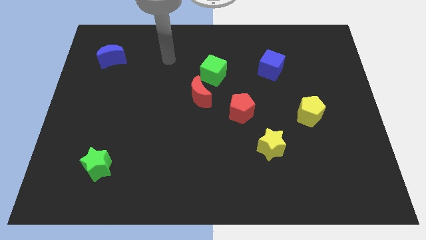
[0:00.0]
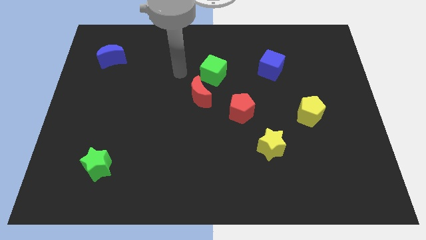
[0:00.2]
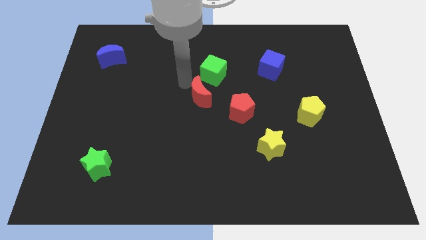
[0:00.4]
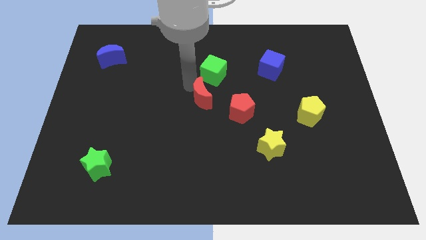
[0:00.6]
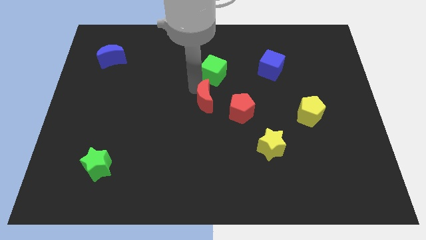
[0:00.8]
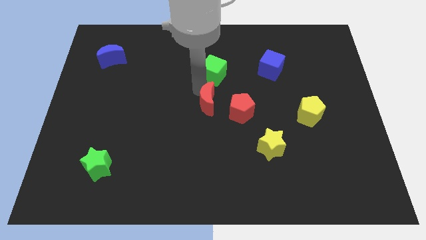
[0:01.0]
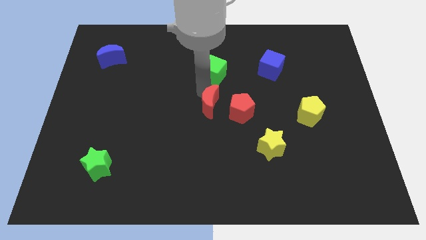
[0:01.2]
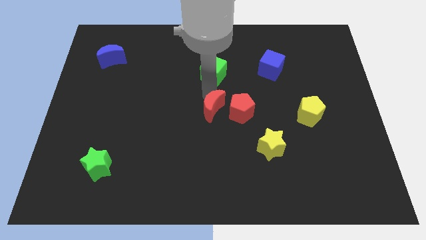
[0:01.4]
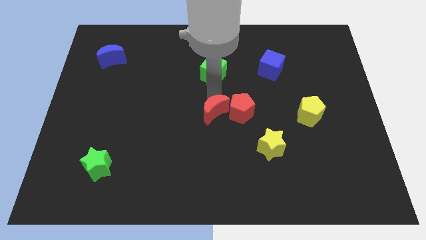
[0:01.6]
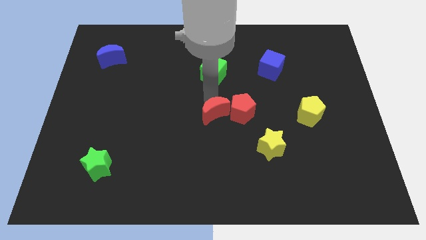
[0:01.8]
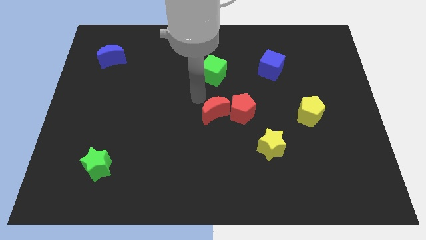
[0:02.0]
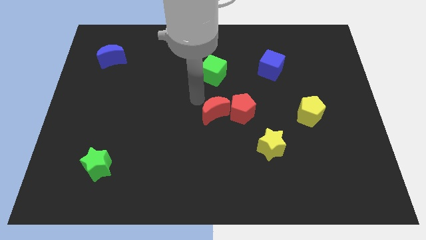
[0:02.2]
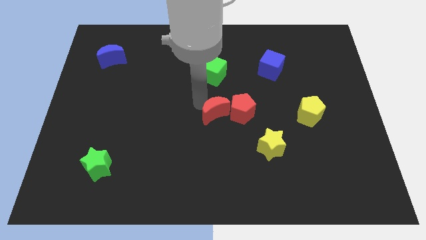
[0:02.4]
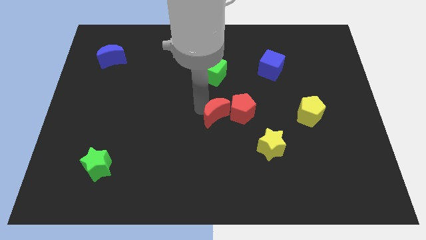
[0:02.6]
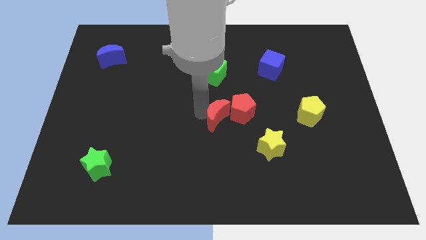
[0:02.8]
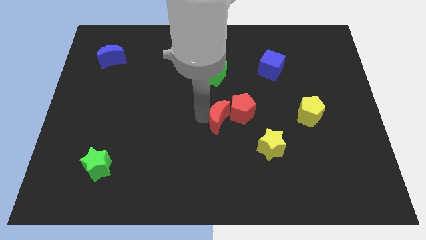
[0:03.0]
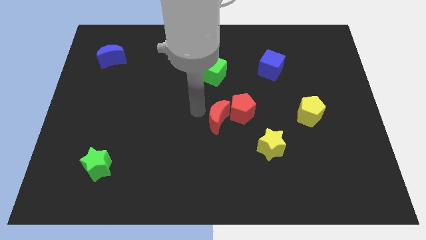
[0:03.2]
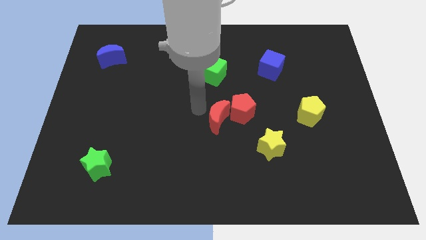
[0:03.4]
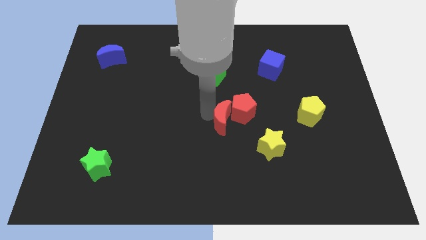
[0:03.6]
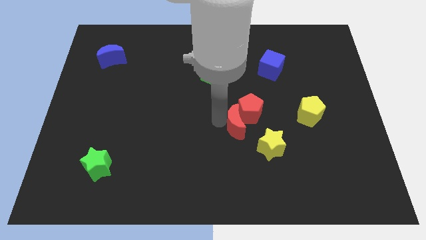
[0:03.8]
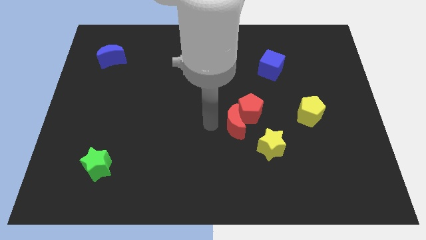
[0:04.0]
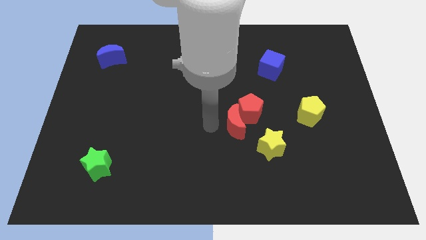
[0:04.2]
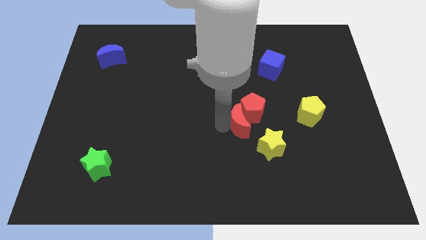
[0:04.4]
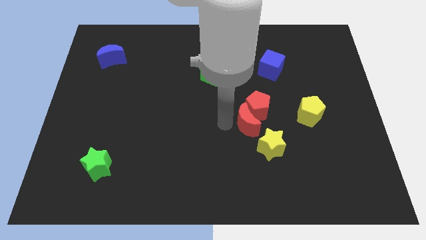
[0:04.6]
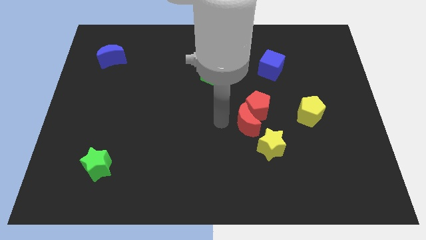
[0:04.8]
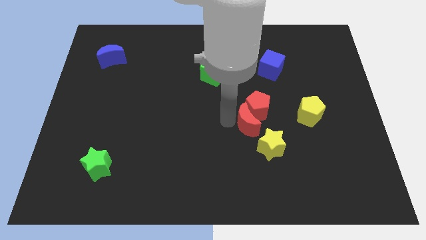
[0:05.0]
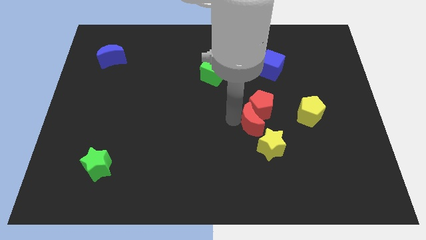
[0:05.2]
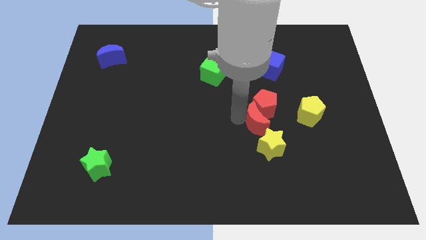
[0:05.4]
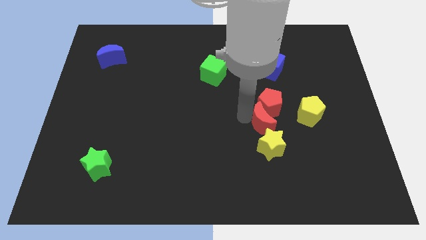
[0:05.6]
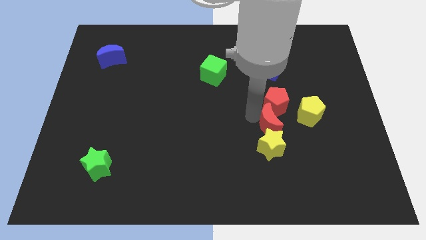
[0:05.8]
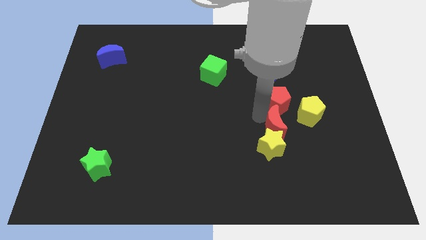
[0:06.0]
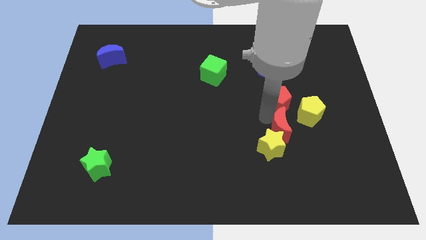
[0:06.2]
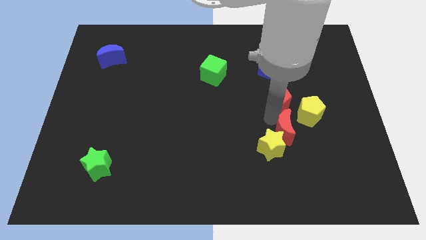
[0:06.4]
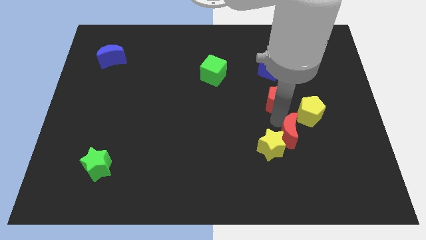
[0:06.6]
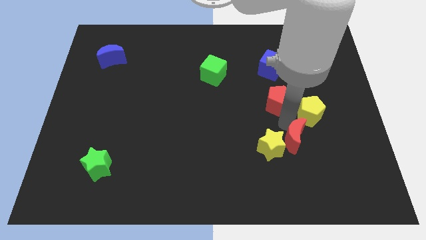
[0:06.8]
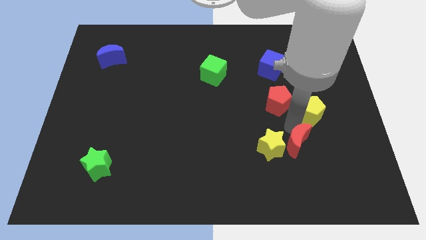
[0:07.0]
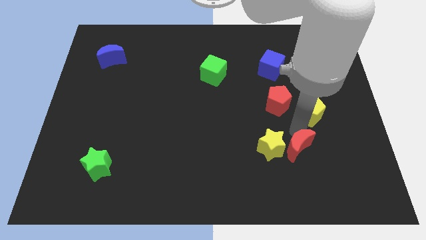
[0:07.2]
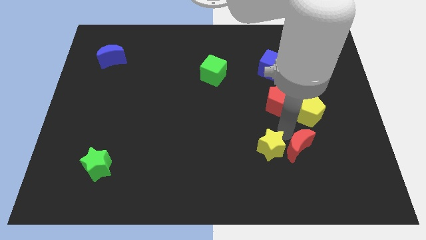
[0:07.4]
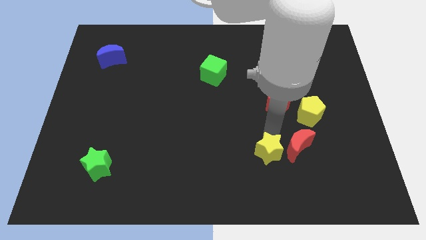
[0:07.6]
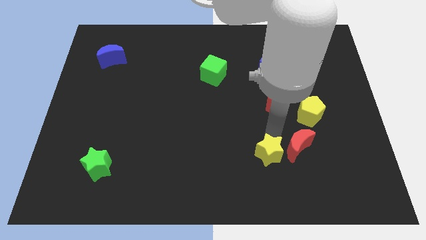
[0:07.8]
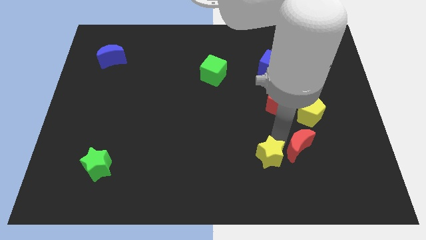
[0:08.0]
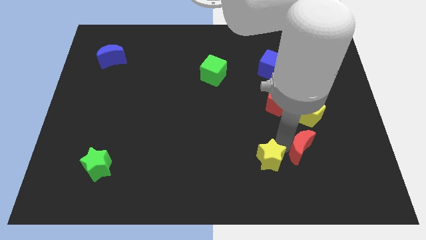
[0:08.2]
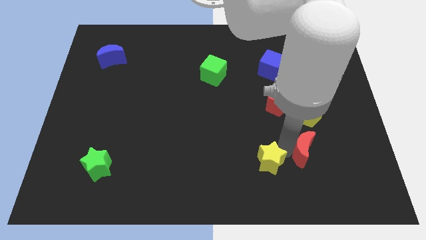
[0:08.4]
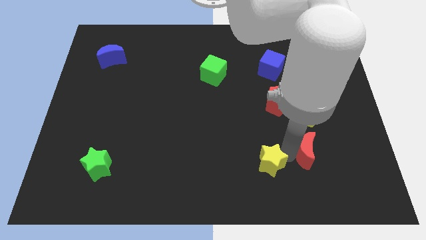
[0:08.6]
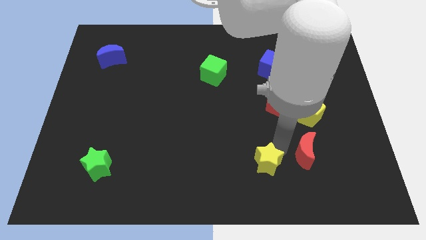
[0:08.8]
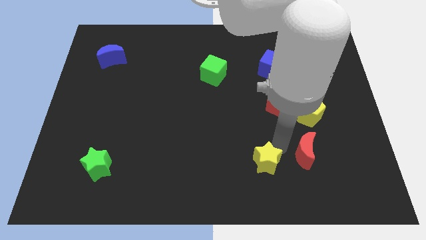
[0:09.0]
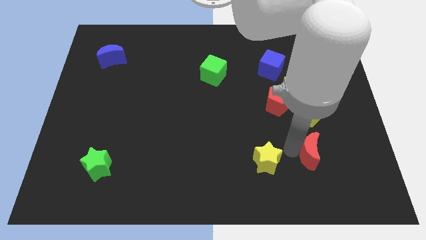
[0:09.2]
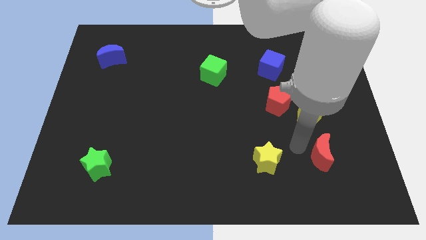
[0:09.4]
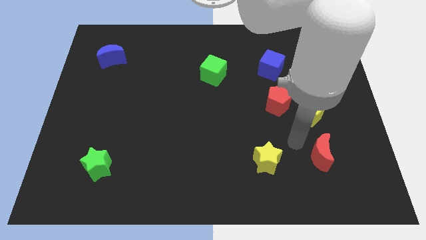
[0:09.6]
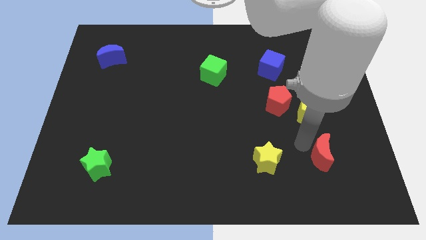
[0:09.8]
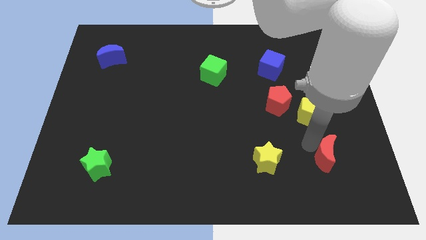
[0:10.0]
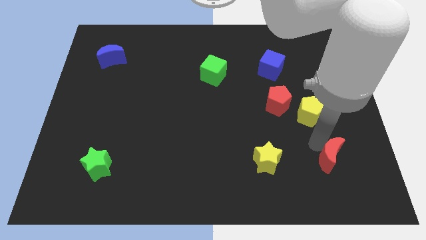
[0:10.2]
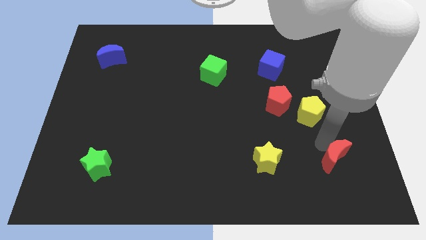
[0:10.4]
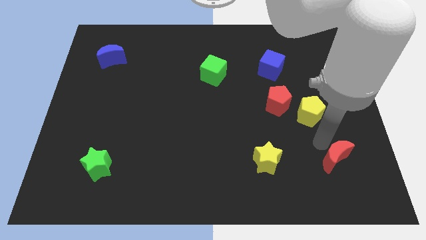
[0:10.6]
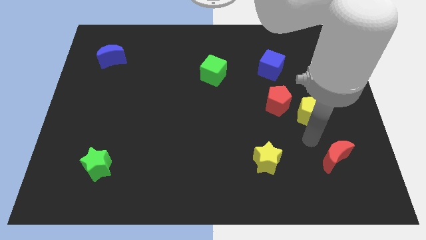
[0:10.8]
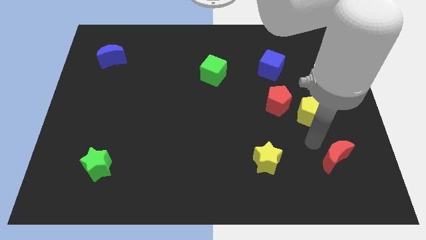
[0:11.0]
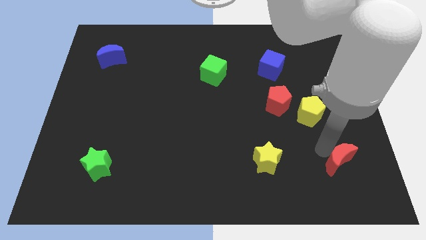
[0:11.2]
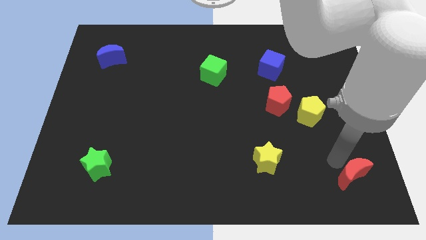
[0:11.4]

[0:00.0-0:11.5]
push the red moon to the bottom right

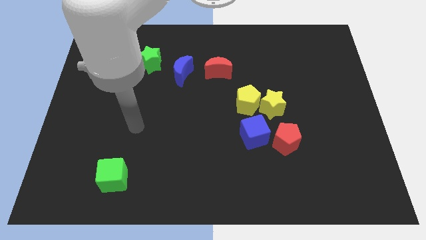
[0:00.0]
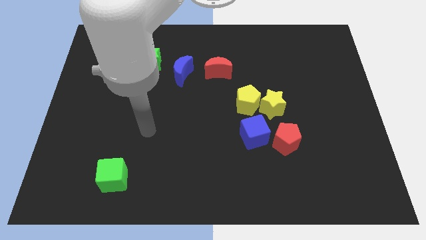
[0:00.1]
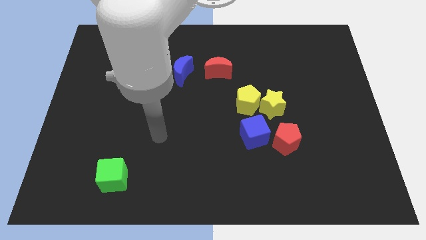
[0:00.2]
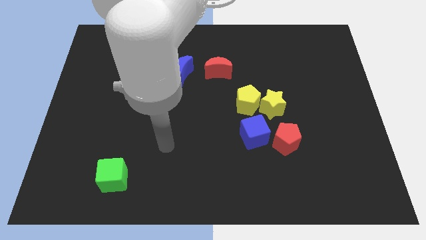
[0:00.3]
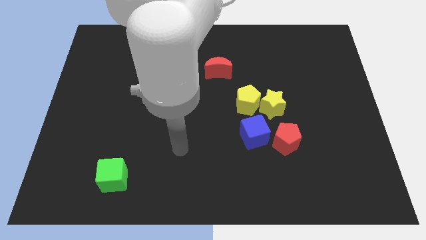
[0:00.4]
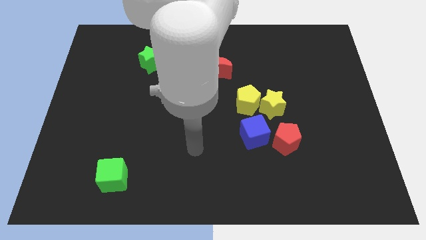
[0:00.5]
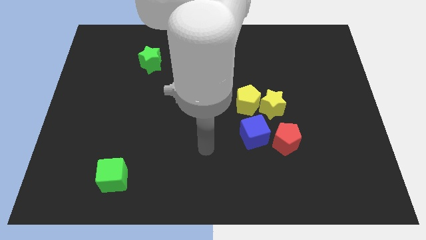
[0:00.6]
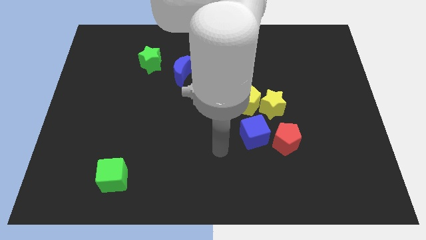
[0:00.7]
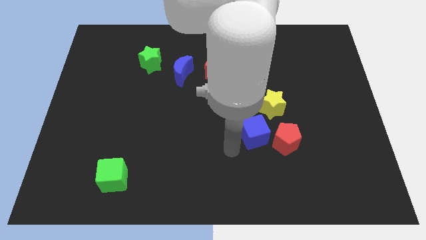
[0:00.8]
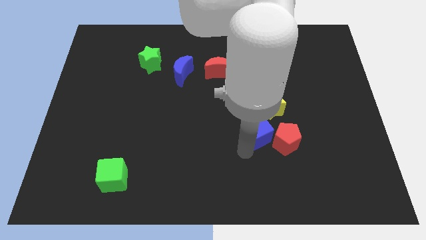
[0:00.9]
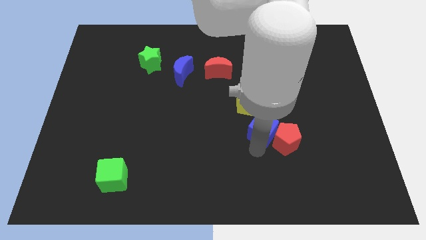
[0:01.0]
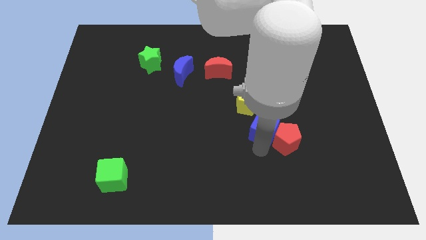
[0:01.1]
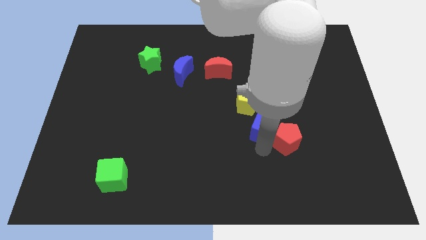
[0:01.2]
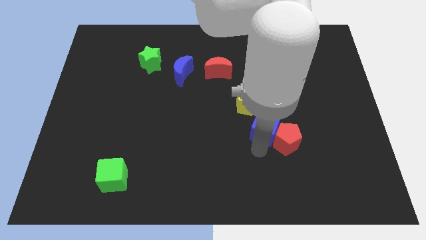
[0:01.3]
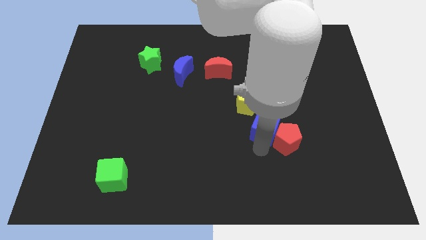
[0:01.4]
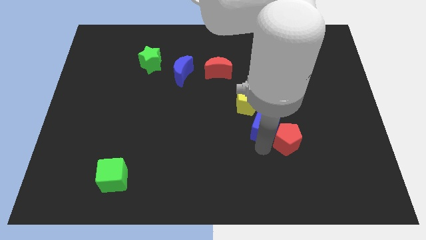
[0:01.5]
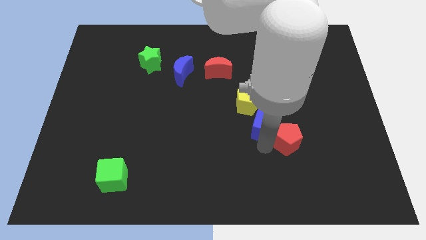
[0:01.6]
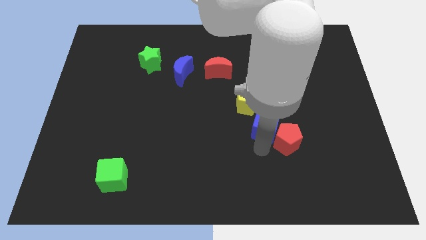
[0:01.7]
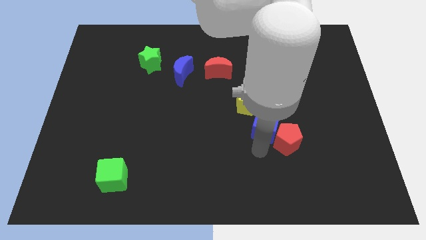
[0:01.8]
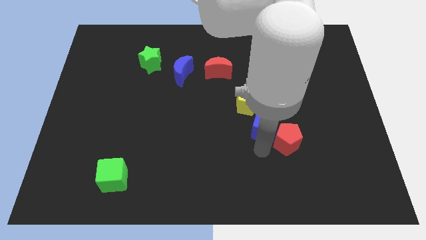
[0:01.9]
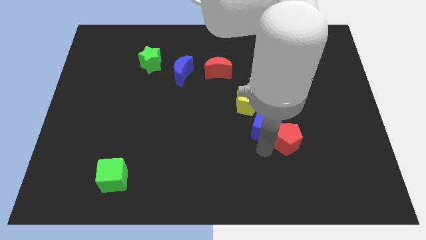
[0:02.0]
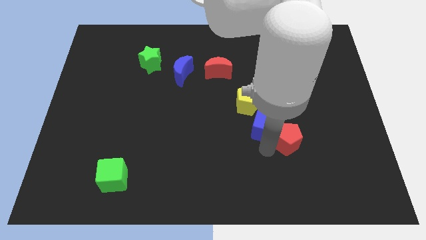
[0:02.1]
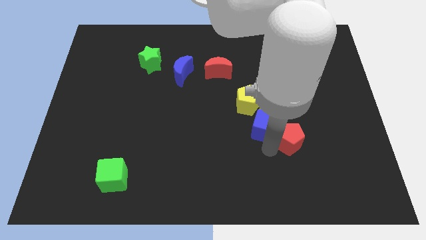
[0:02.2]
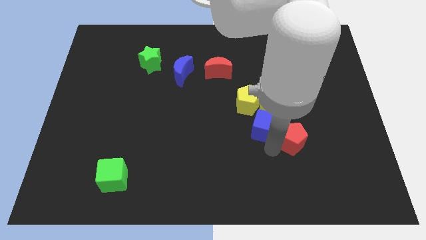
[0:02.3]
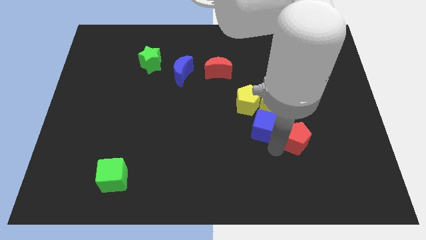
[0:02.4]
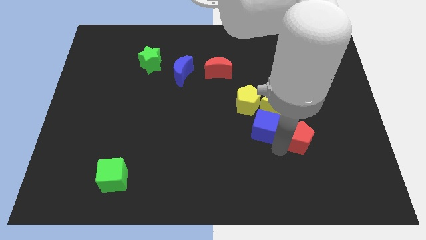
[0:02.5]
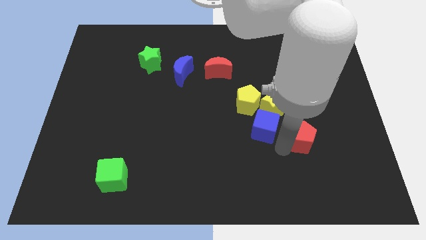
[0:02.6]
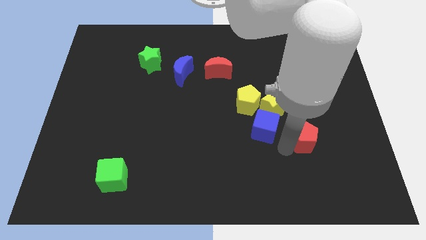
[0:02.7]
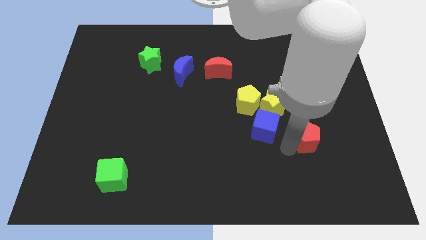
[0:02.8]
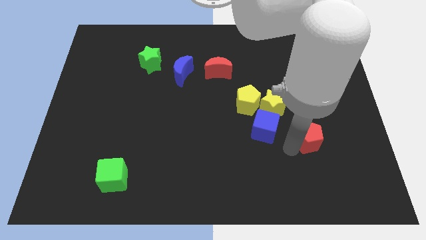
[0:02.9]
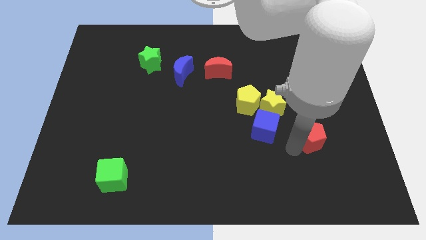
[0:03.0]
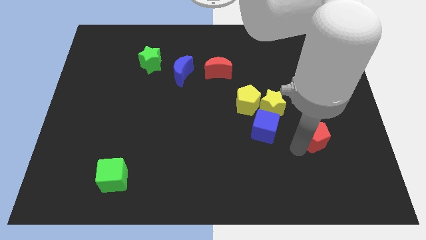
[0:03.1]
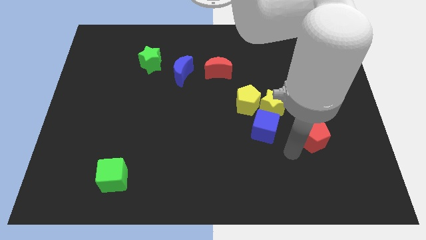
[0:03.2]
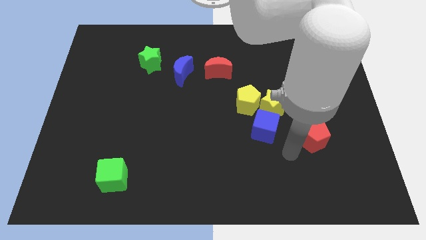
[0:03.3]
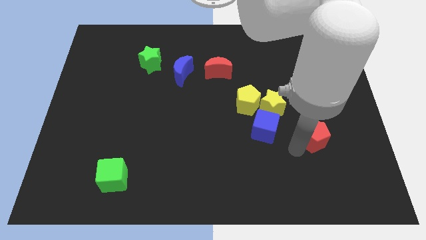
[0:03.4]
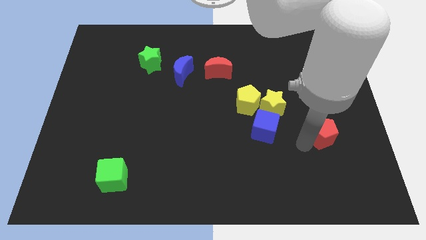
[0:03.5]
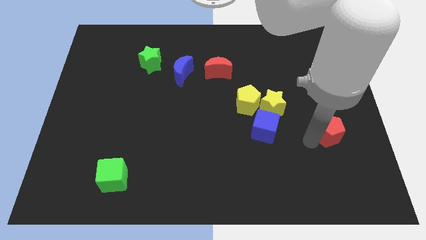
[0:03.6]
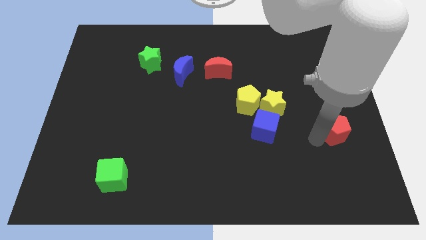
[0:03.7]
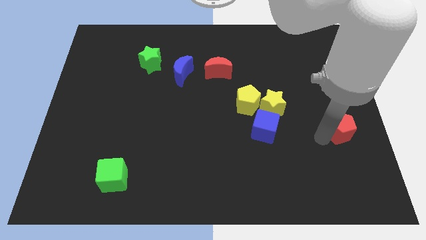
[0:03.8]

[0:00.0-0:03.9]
move the red pentagon to the right side of the board
